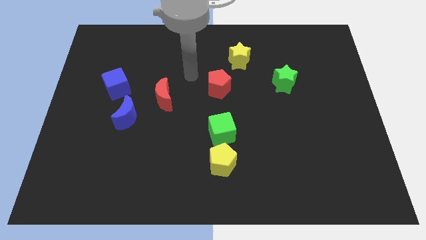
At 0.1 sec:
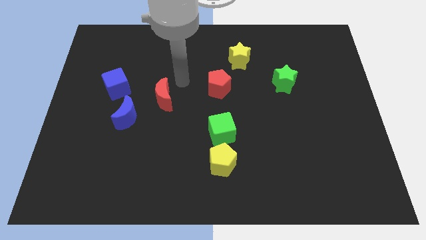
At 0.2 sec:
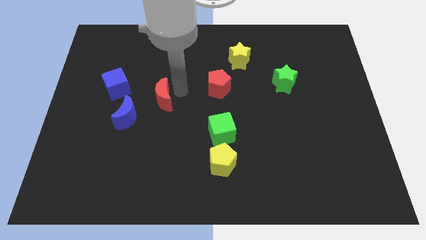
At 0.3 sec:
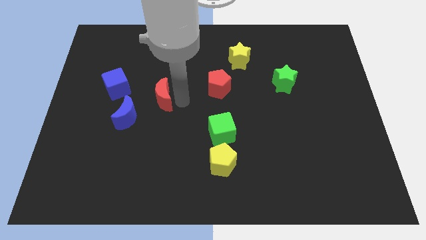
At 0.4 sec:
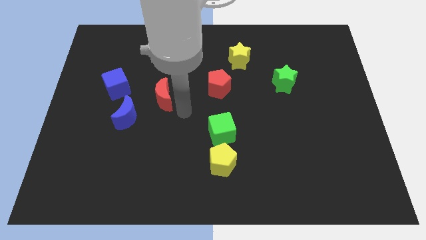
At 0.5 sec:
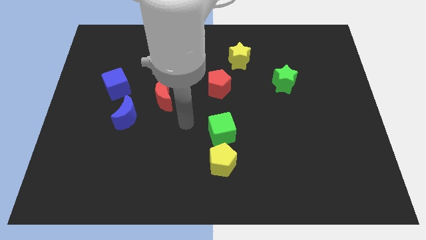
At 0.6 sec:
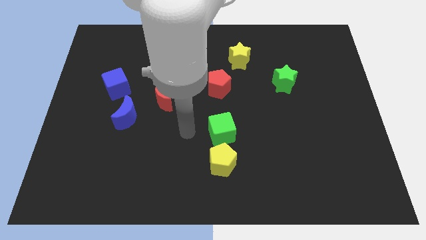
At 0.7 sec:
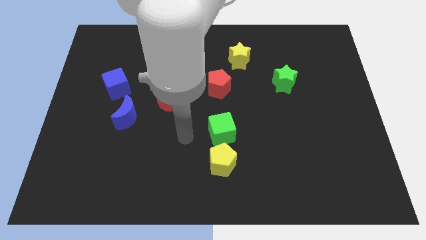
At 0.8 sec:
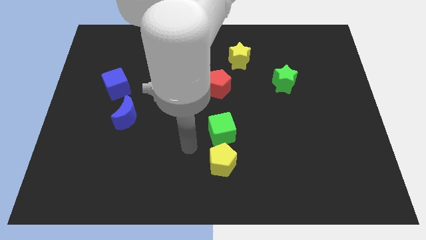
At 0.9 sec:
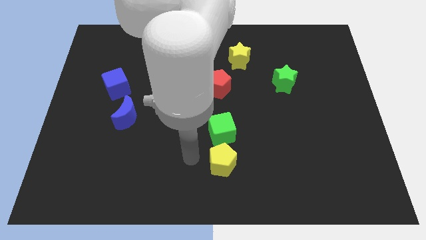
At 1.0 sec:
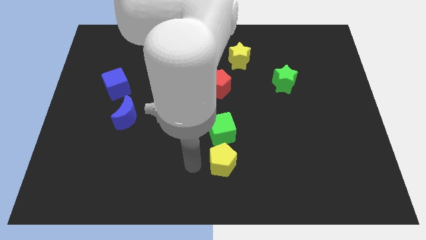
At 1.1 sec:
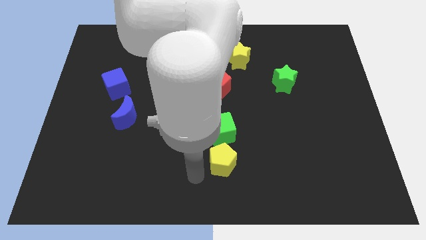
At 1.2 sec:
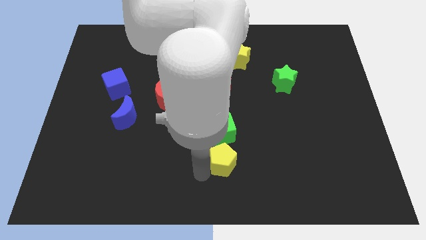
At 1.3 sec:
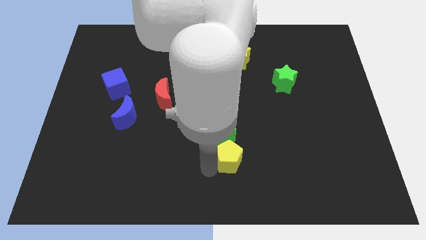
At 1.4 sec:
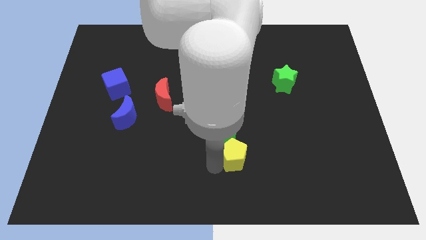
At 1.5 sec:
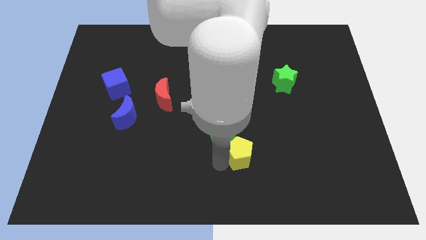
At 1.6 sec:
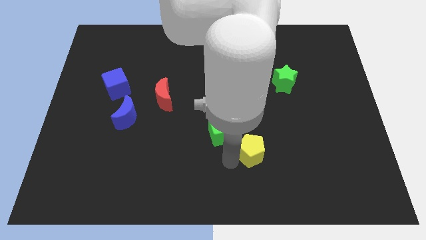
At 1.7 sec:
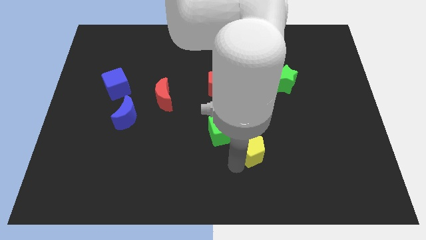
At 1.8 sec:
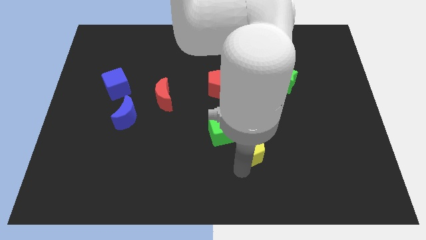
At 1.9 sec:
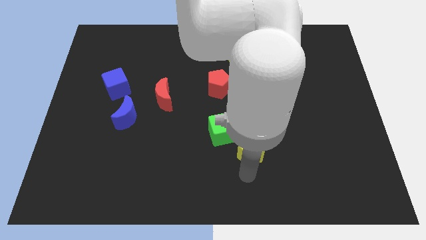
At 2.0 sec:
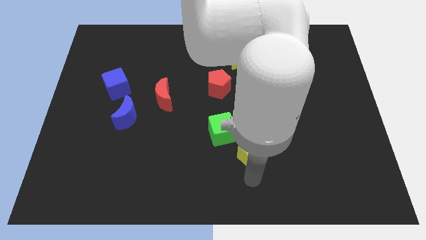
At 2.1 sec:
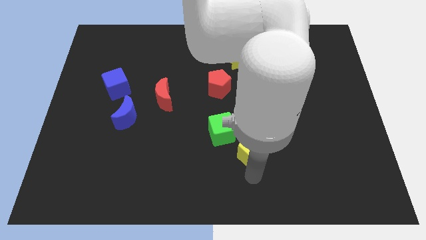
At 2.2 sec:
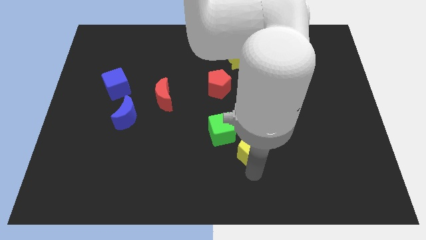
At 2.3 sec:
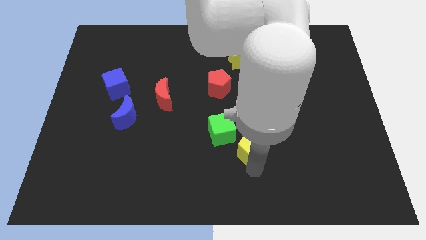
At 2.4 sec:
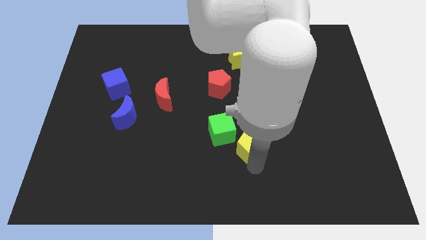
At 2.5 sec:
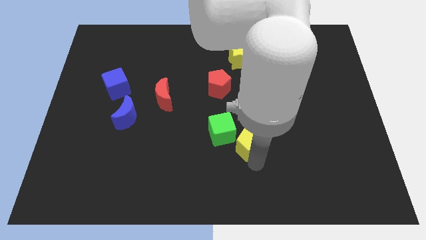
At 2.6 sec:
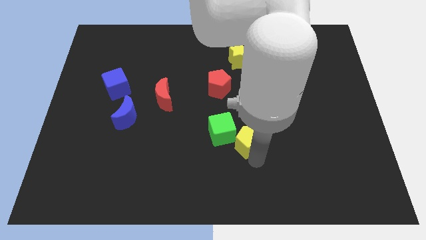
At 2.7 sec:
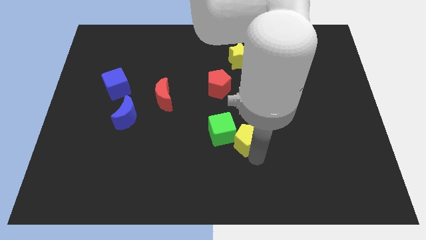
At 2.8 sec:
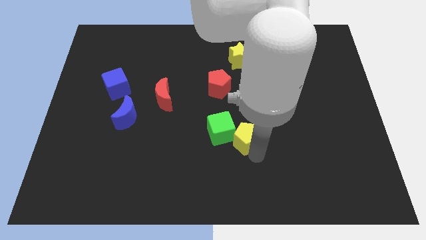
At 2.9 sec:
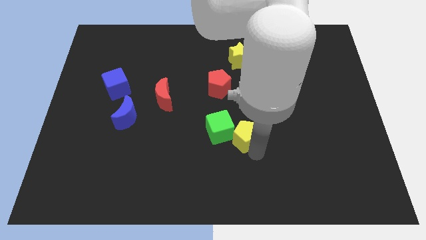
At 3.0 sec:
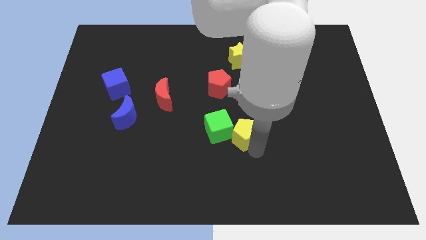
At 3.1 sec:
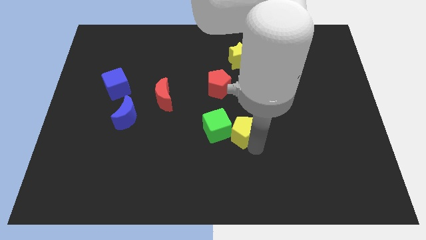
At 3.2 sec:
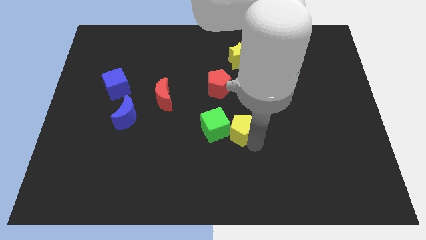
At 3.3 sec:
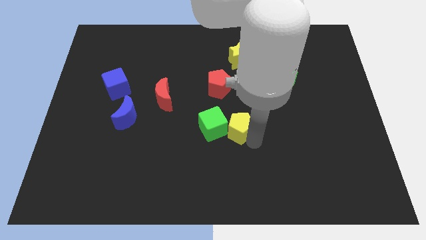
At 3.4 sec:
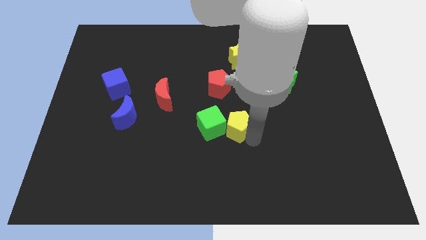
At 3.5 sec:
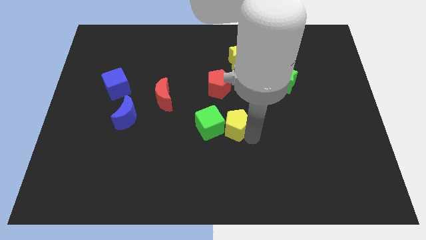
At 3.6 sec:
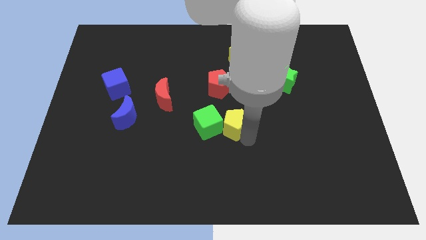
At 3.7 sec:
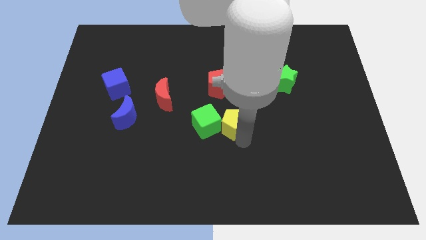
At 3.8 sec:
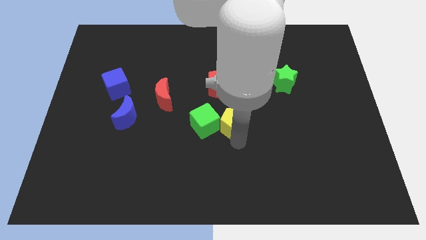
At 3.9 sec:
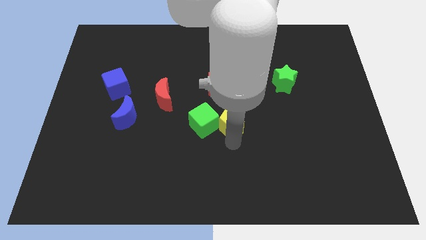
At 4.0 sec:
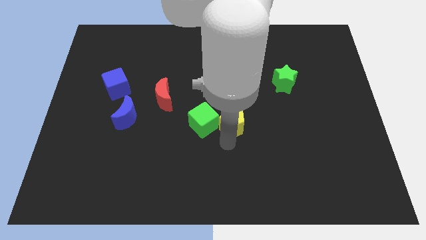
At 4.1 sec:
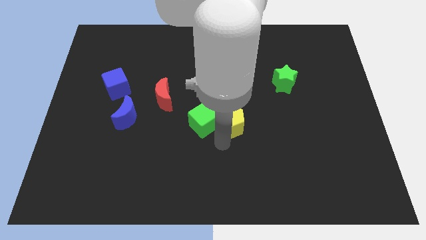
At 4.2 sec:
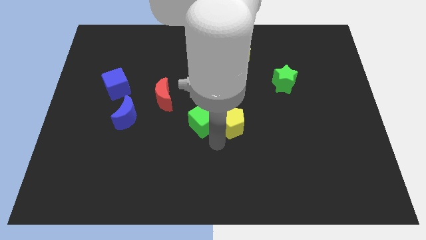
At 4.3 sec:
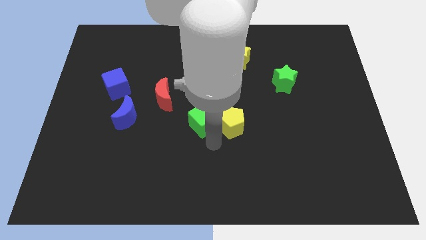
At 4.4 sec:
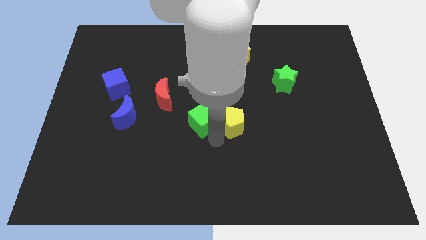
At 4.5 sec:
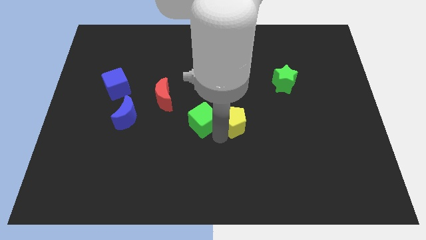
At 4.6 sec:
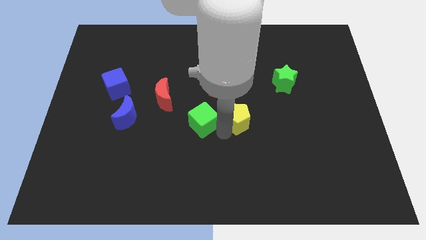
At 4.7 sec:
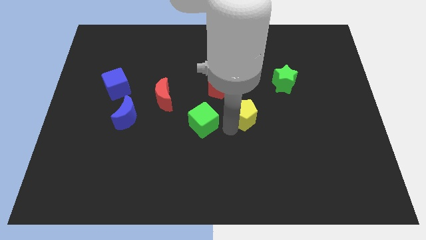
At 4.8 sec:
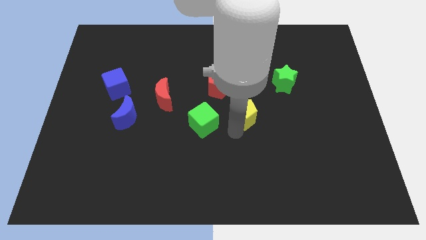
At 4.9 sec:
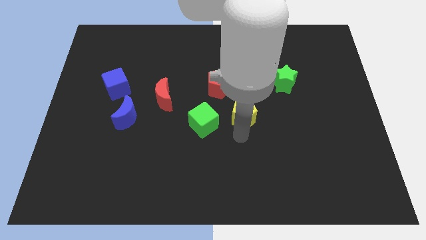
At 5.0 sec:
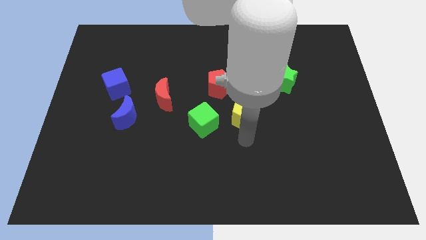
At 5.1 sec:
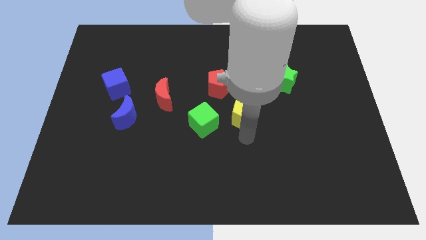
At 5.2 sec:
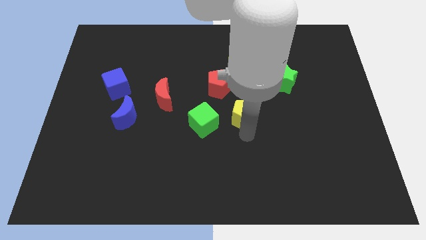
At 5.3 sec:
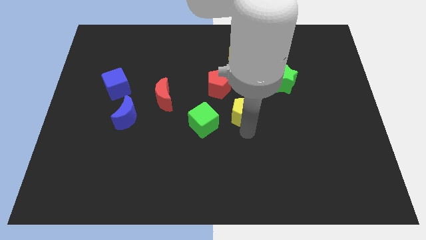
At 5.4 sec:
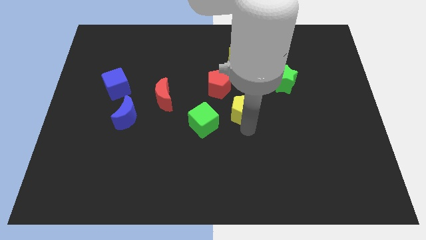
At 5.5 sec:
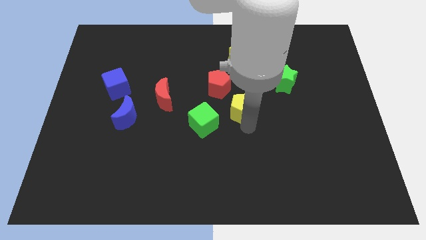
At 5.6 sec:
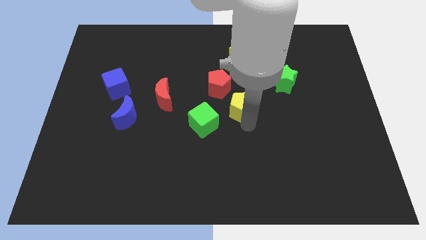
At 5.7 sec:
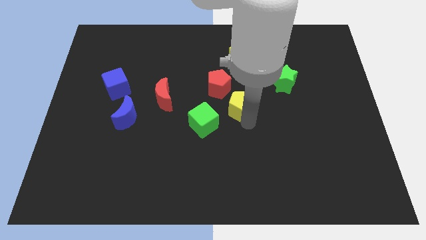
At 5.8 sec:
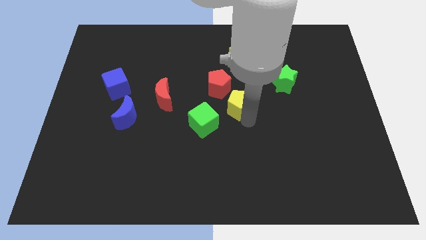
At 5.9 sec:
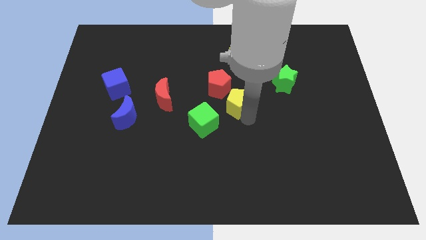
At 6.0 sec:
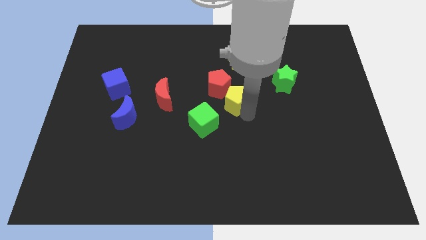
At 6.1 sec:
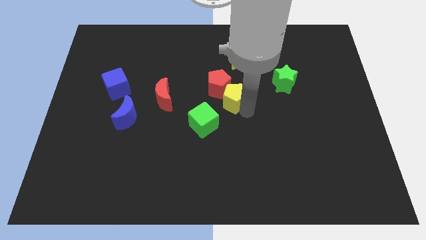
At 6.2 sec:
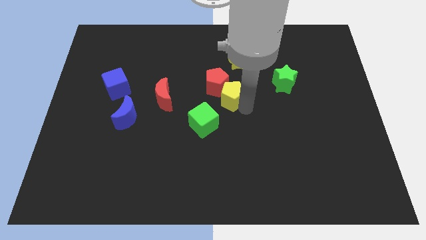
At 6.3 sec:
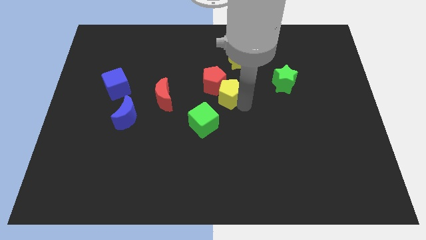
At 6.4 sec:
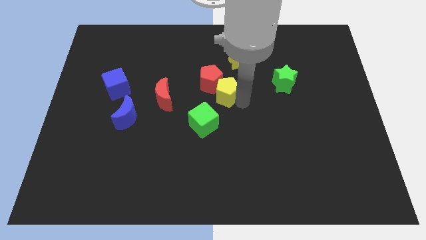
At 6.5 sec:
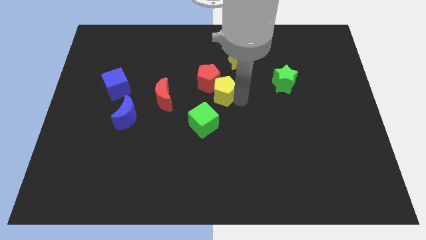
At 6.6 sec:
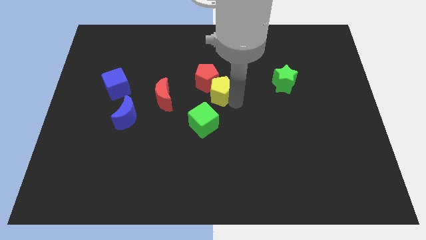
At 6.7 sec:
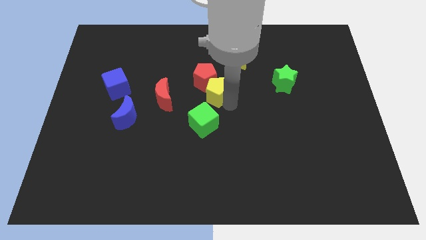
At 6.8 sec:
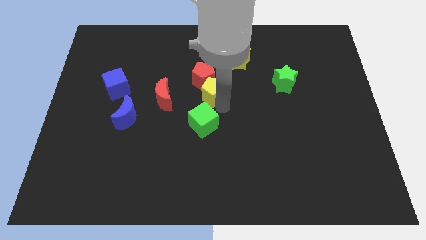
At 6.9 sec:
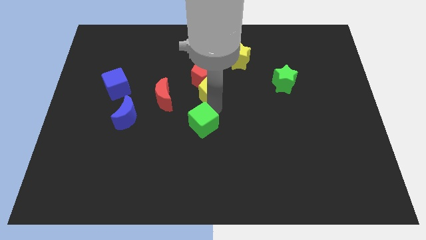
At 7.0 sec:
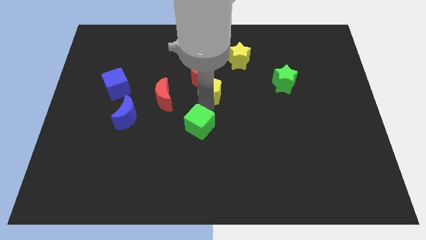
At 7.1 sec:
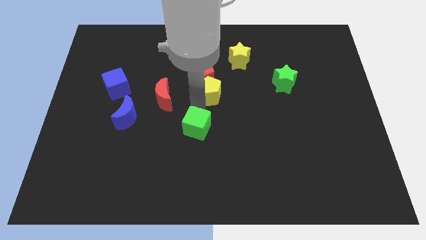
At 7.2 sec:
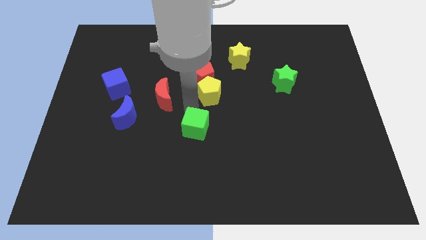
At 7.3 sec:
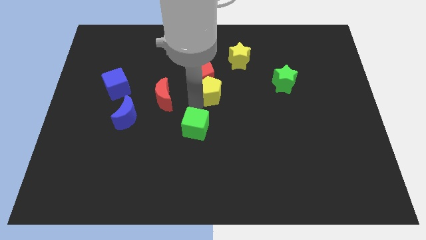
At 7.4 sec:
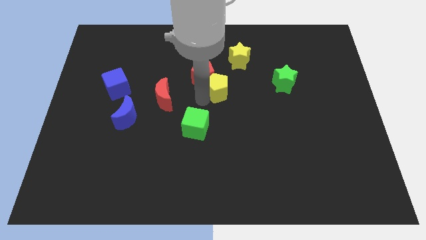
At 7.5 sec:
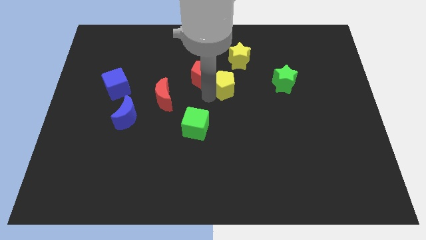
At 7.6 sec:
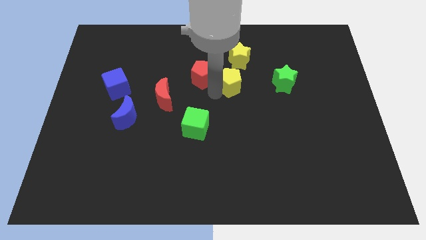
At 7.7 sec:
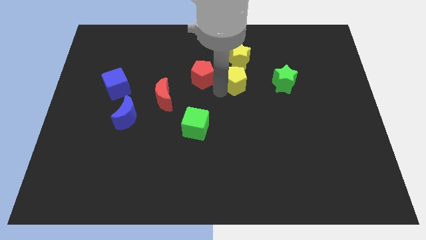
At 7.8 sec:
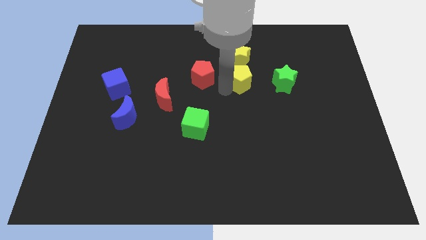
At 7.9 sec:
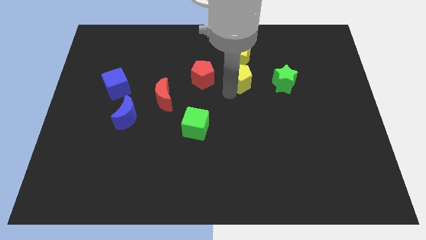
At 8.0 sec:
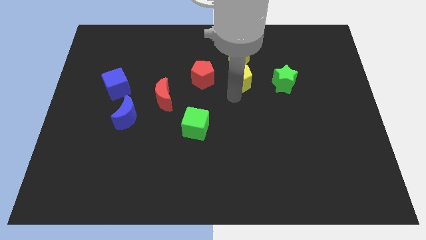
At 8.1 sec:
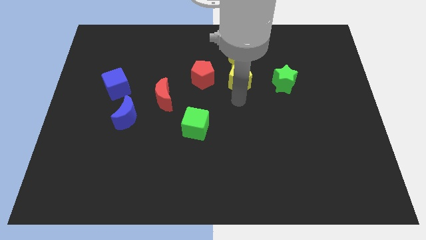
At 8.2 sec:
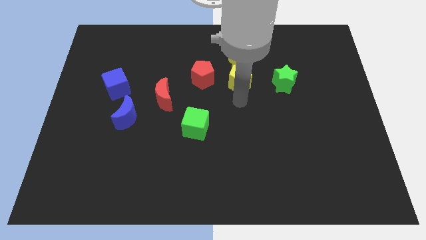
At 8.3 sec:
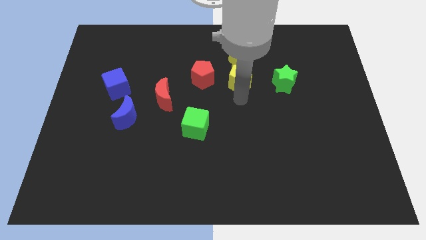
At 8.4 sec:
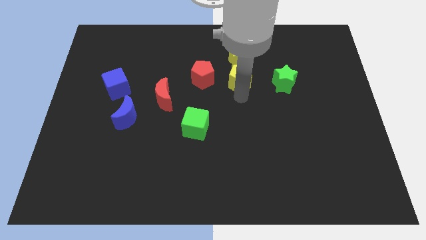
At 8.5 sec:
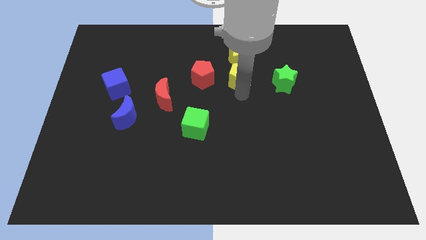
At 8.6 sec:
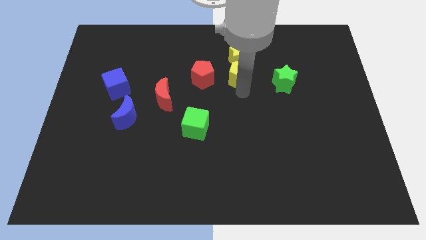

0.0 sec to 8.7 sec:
push the yellow pentagon close to the yellow star
